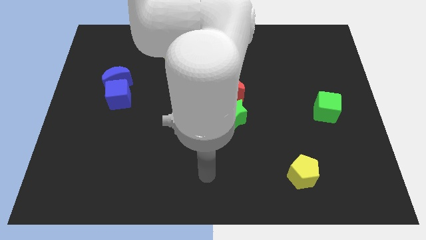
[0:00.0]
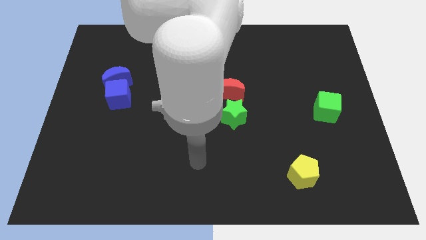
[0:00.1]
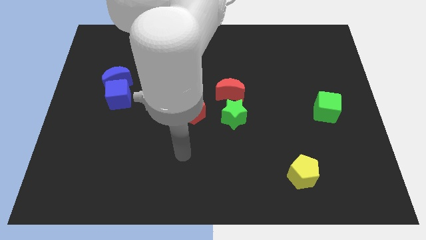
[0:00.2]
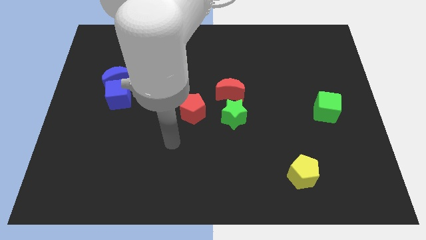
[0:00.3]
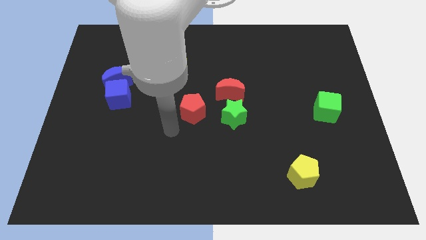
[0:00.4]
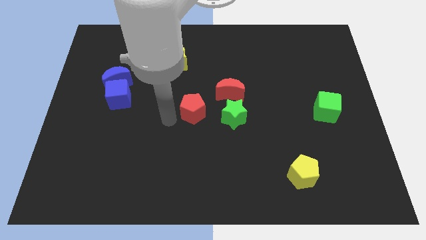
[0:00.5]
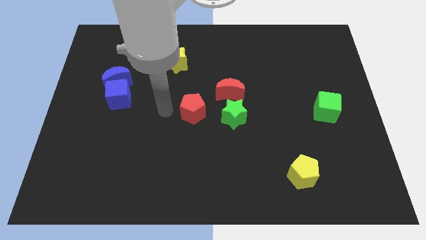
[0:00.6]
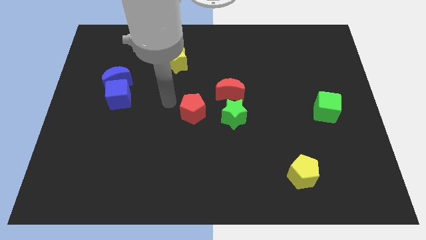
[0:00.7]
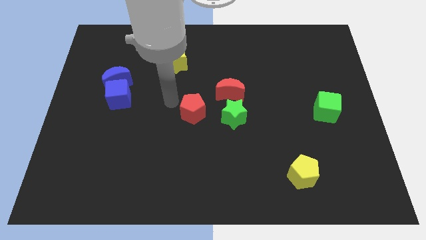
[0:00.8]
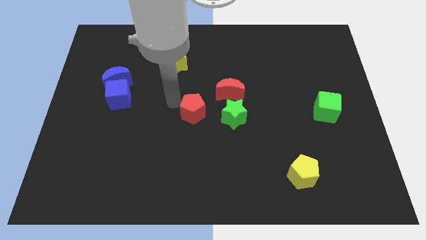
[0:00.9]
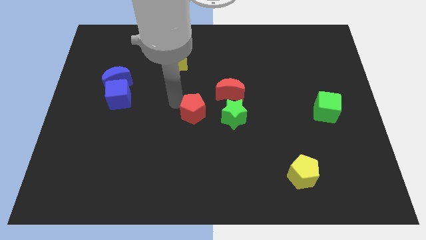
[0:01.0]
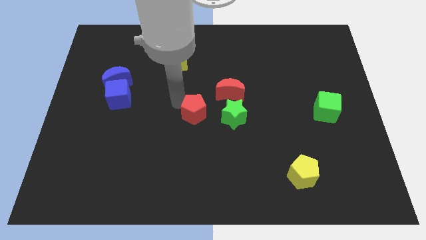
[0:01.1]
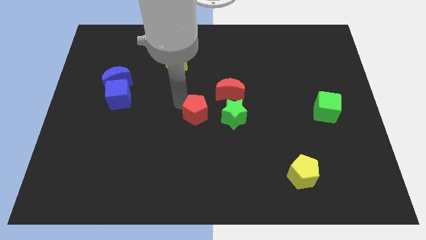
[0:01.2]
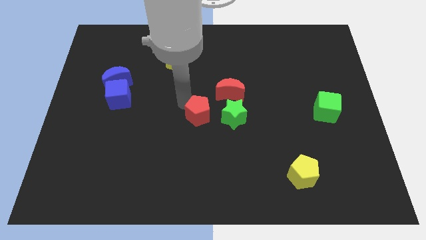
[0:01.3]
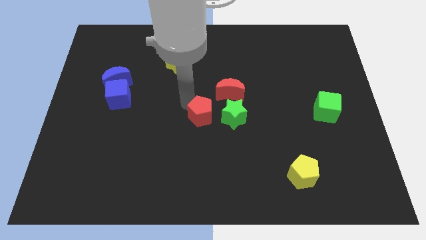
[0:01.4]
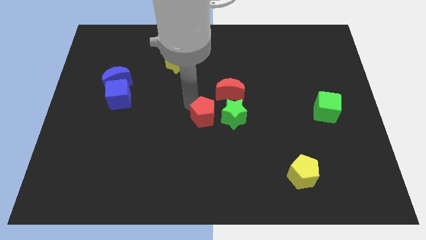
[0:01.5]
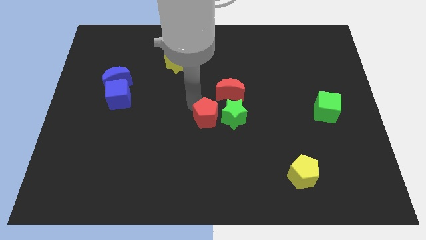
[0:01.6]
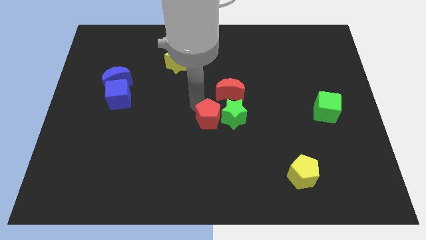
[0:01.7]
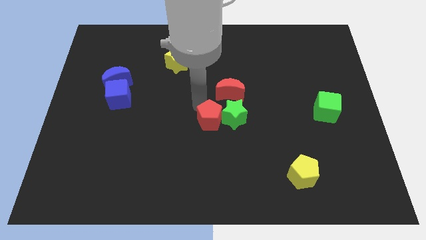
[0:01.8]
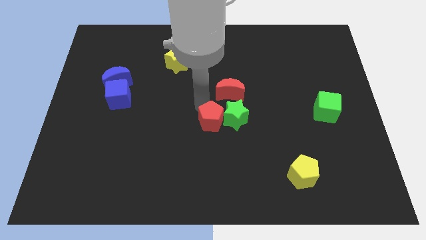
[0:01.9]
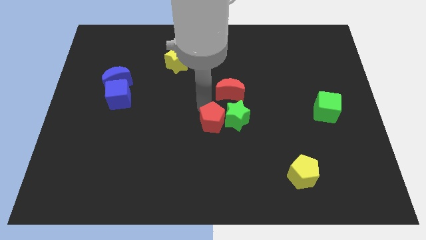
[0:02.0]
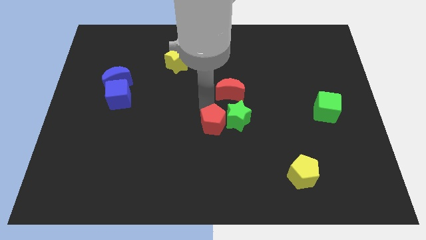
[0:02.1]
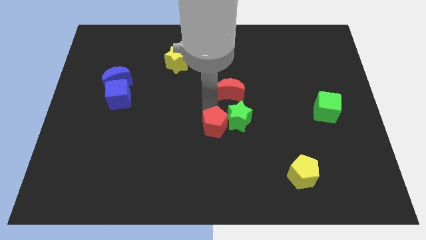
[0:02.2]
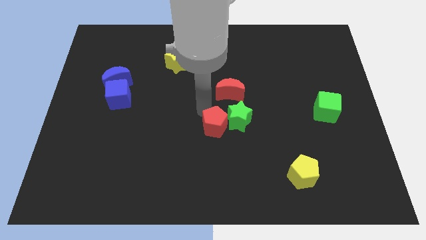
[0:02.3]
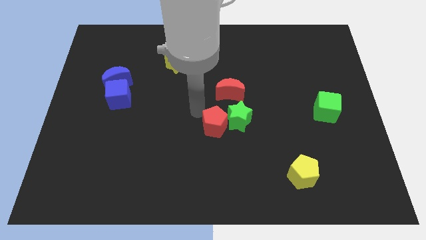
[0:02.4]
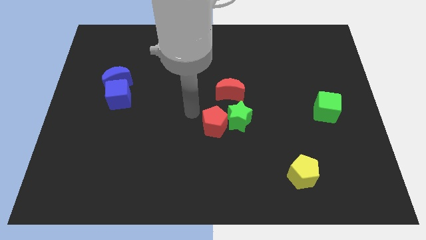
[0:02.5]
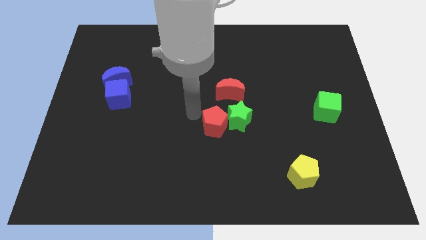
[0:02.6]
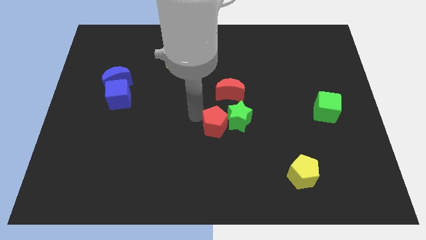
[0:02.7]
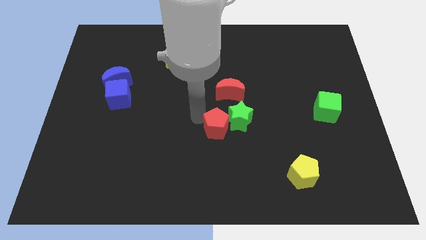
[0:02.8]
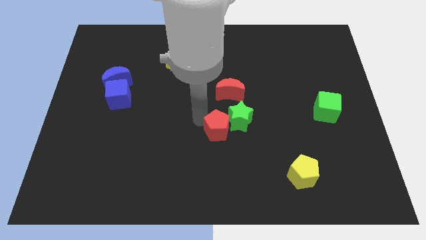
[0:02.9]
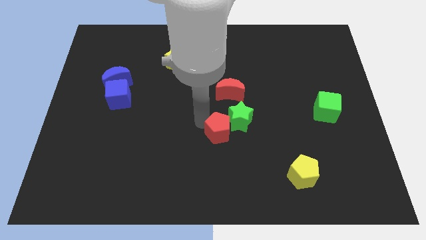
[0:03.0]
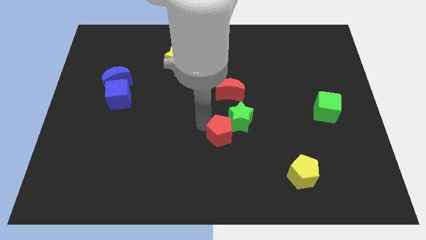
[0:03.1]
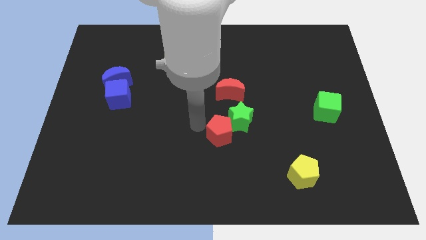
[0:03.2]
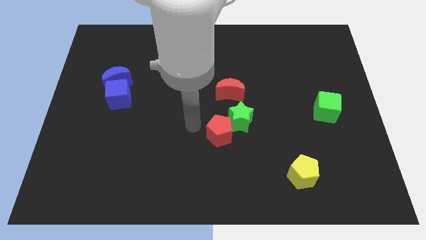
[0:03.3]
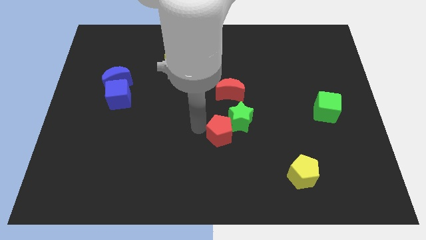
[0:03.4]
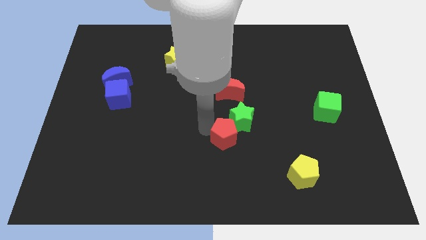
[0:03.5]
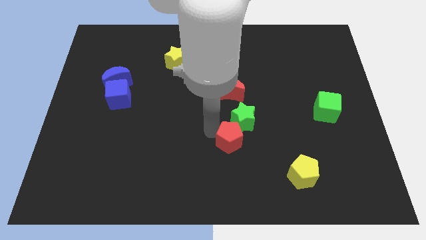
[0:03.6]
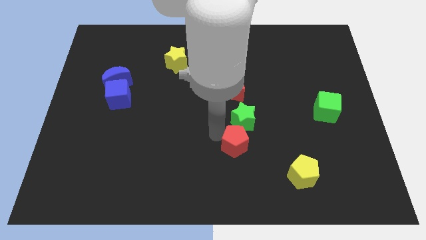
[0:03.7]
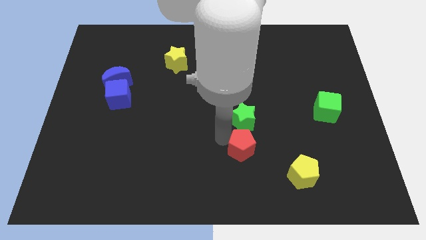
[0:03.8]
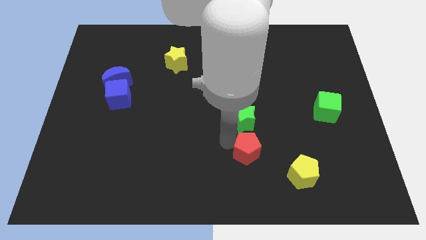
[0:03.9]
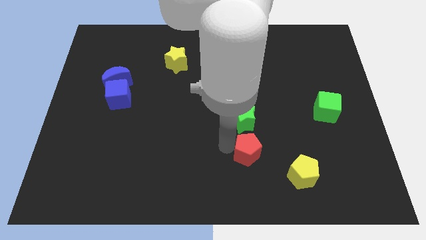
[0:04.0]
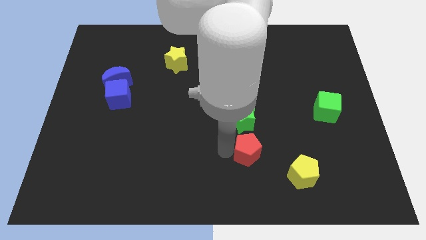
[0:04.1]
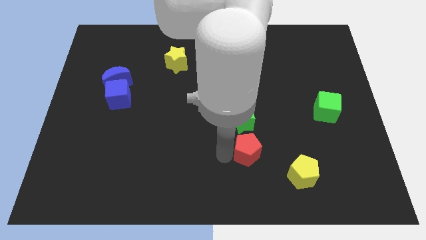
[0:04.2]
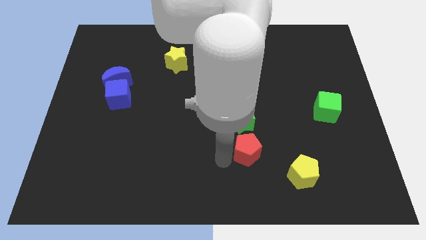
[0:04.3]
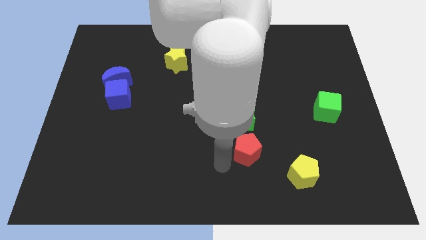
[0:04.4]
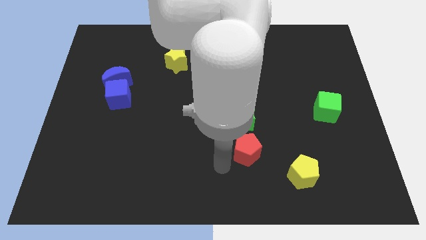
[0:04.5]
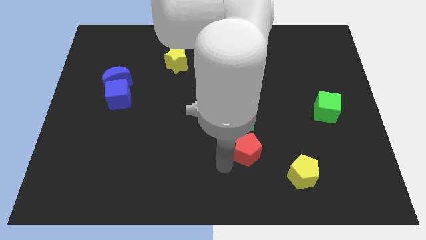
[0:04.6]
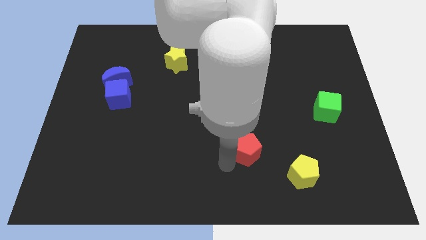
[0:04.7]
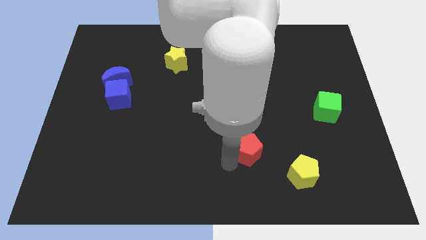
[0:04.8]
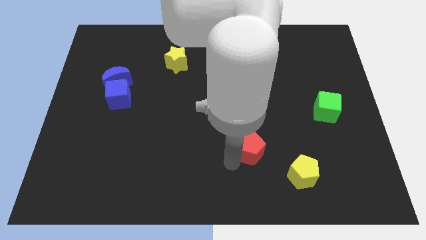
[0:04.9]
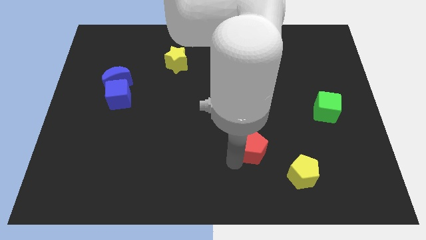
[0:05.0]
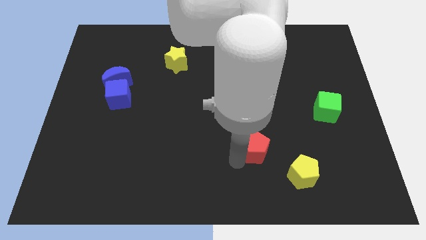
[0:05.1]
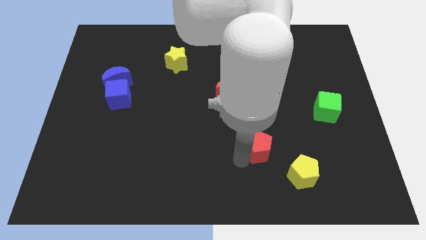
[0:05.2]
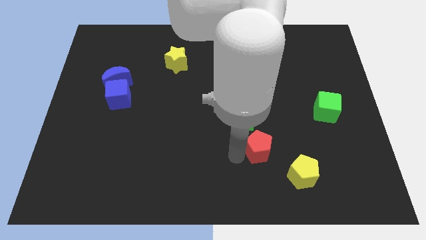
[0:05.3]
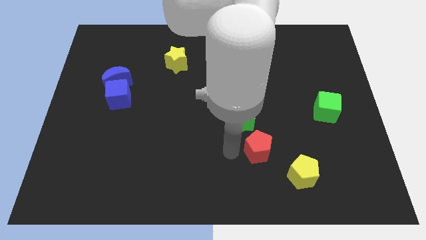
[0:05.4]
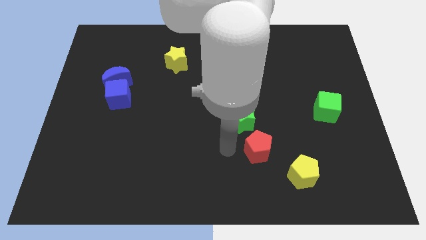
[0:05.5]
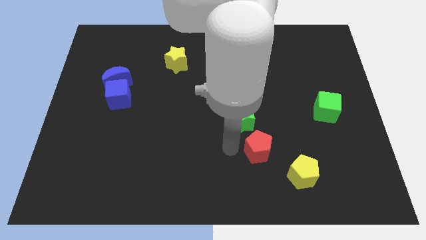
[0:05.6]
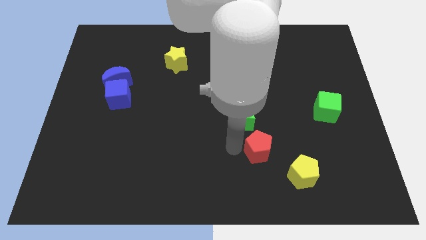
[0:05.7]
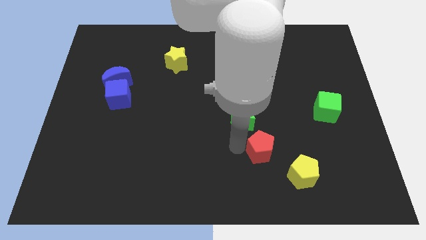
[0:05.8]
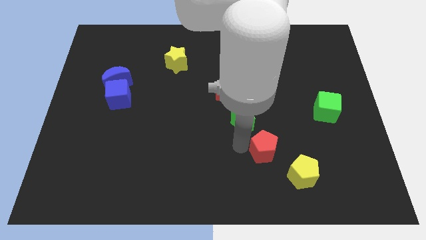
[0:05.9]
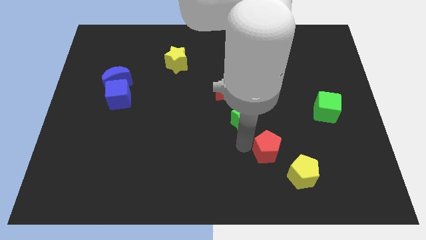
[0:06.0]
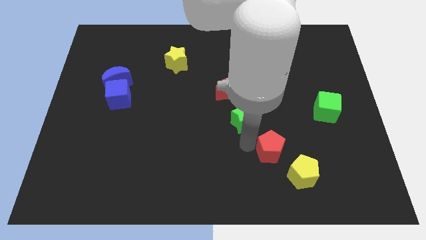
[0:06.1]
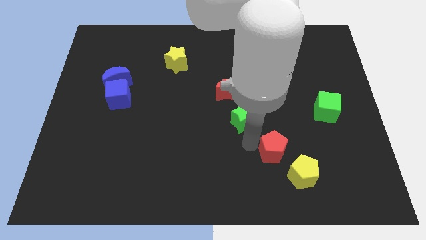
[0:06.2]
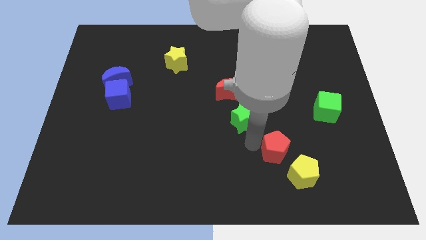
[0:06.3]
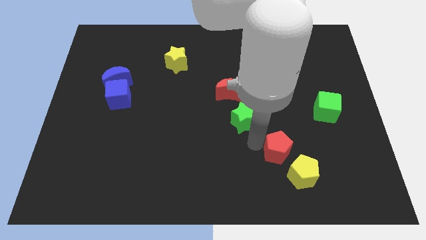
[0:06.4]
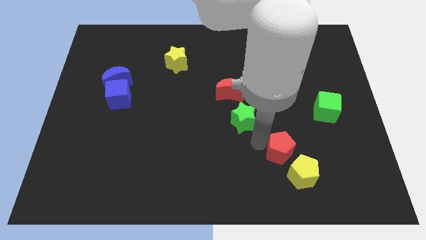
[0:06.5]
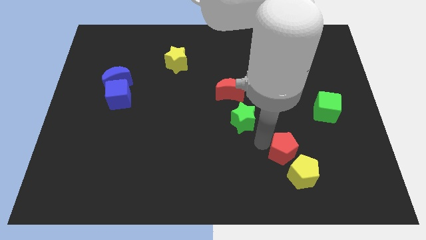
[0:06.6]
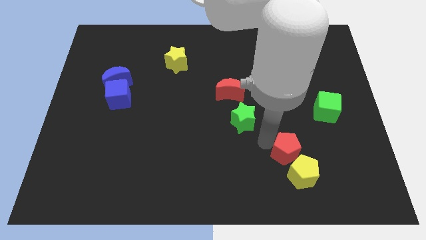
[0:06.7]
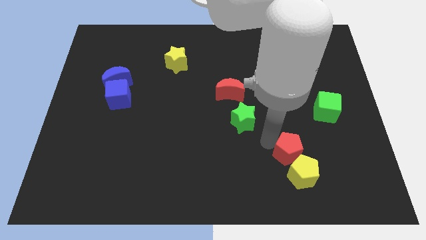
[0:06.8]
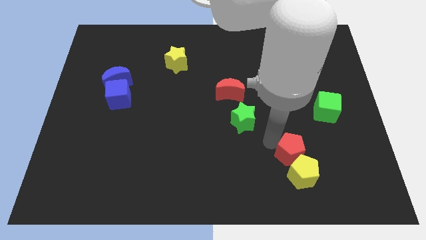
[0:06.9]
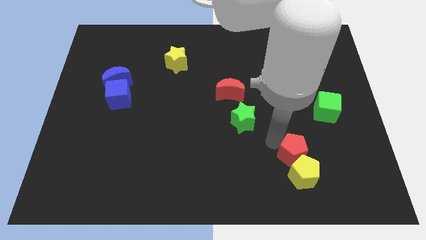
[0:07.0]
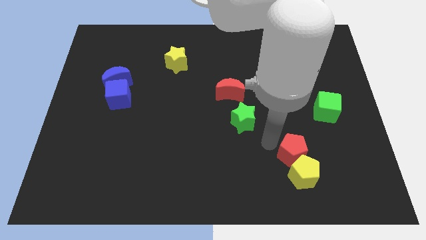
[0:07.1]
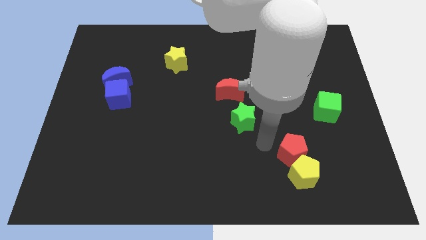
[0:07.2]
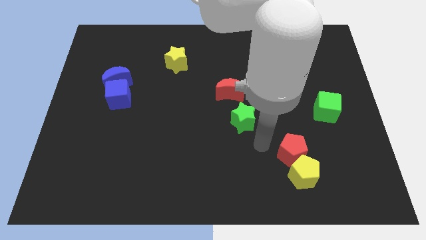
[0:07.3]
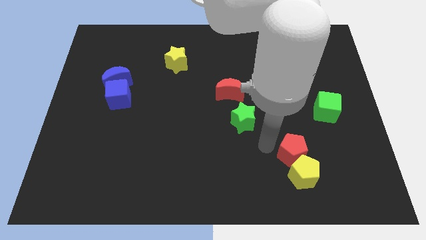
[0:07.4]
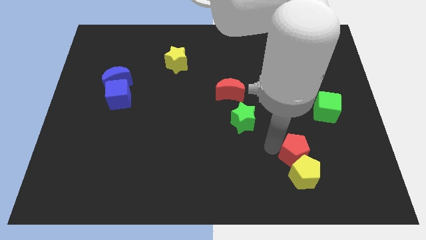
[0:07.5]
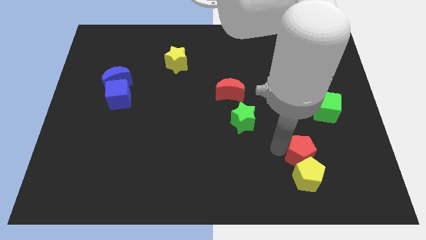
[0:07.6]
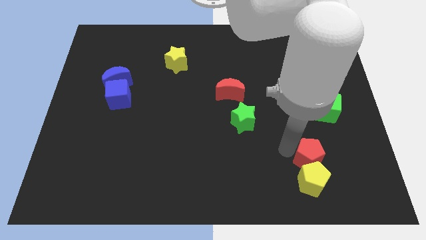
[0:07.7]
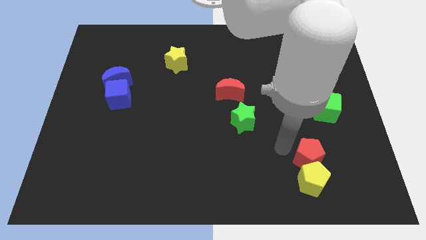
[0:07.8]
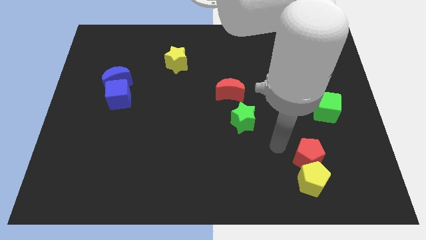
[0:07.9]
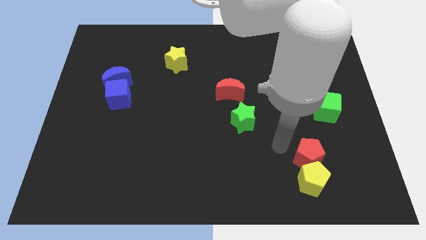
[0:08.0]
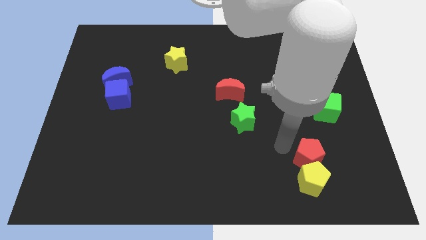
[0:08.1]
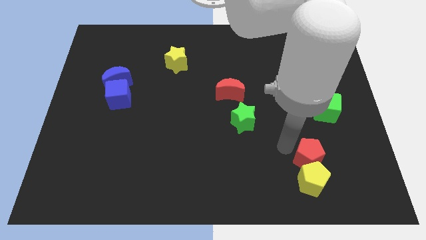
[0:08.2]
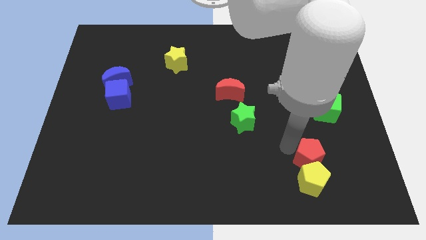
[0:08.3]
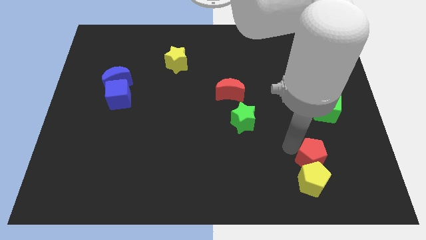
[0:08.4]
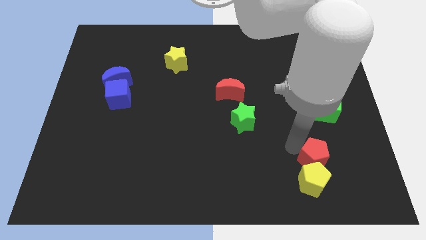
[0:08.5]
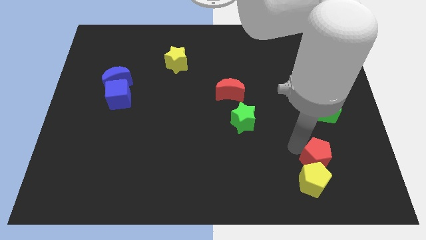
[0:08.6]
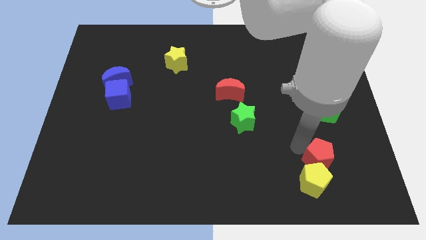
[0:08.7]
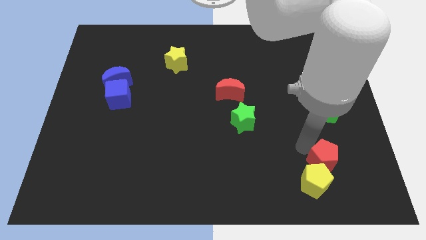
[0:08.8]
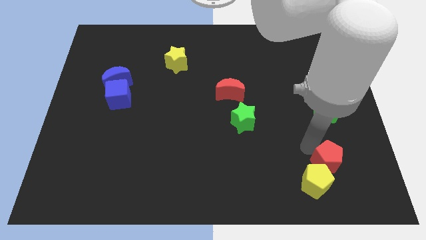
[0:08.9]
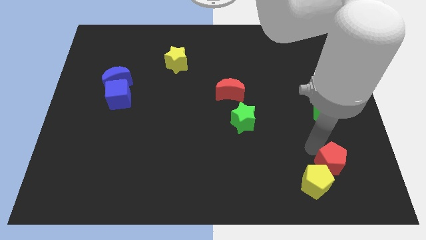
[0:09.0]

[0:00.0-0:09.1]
slide the red pentagon to the right of the yellow pentagon
